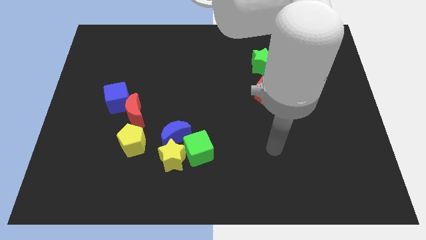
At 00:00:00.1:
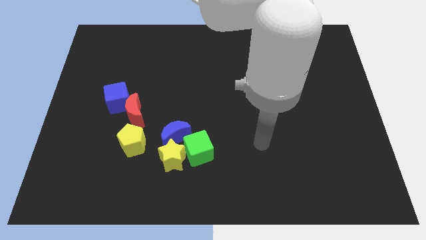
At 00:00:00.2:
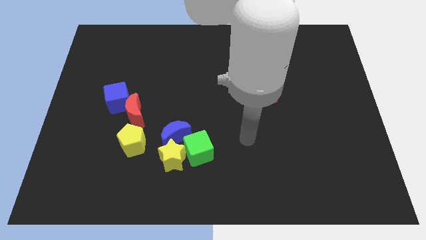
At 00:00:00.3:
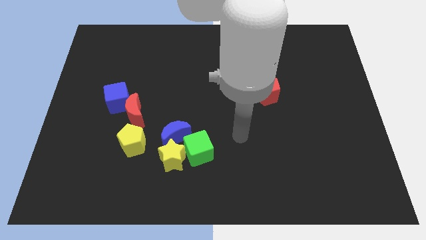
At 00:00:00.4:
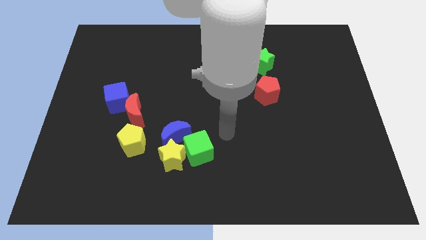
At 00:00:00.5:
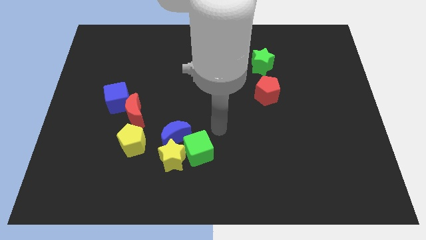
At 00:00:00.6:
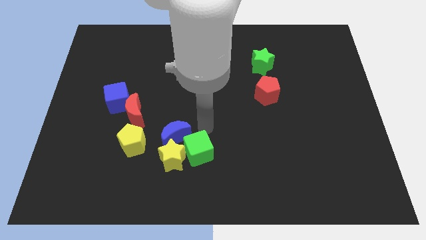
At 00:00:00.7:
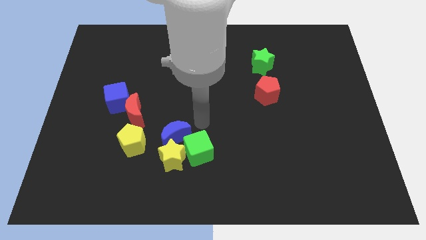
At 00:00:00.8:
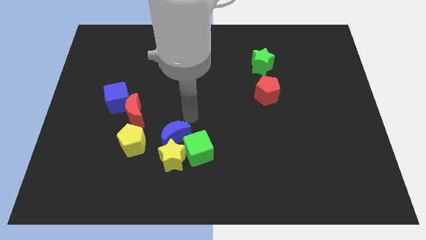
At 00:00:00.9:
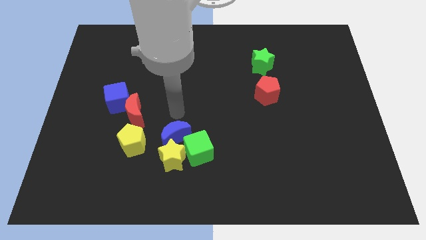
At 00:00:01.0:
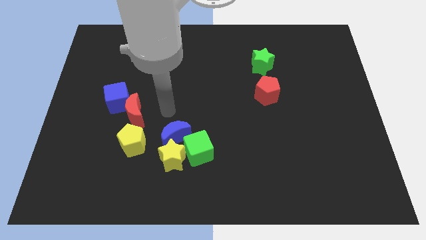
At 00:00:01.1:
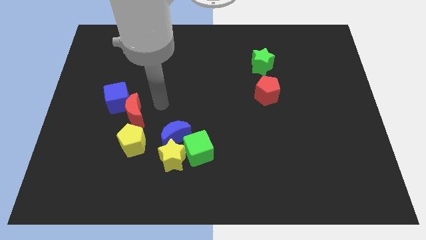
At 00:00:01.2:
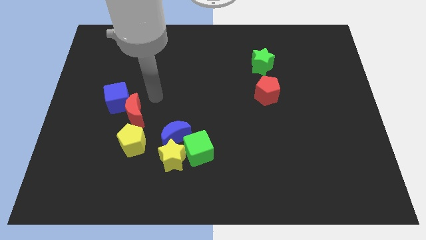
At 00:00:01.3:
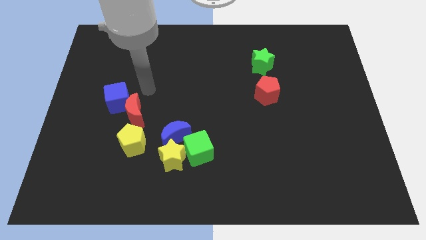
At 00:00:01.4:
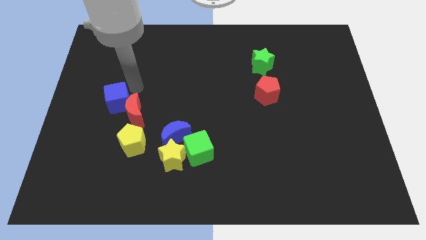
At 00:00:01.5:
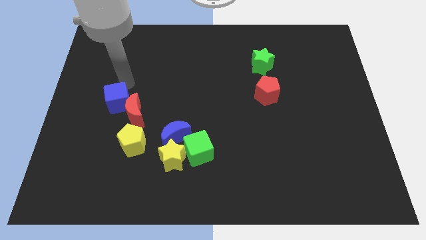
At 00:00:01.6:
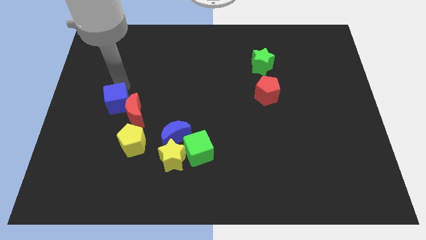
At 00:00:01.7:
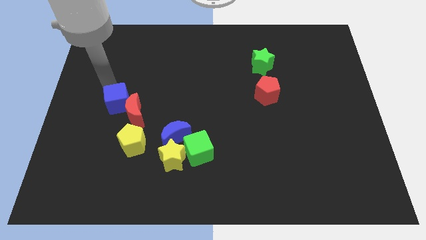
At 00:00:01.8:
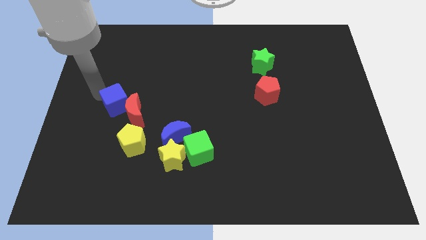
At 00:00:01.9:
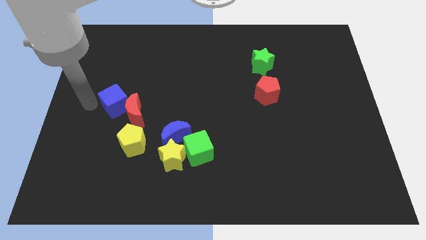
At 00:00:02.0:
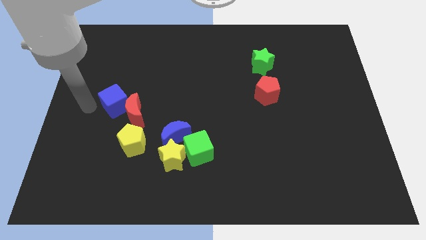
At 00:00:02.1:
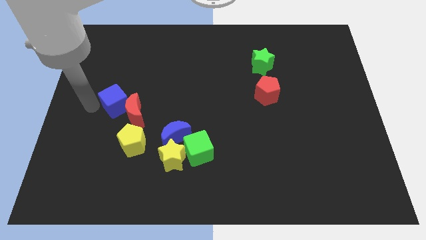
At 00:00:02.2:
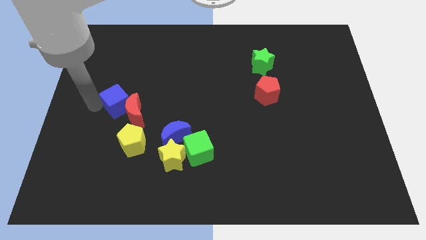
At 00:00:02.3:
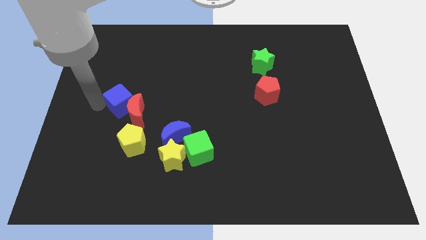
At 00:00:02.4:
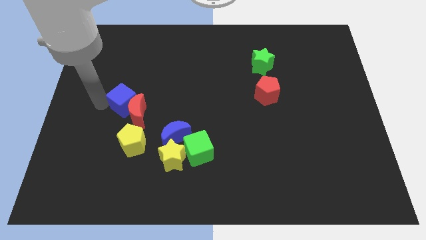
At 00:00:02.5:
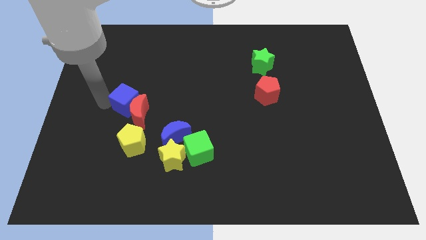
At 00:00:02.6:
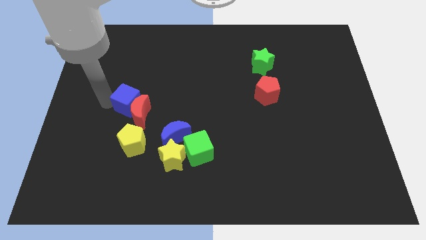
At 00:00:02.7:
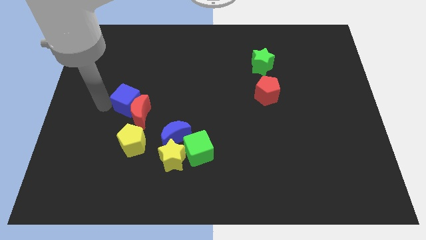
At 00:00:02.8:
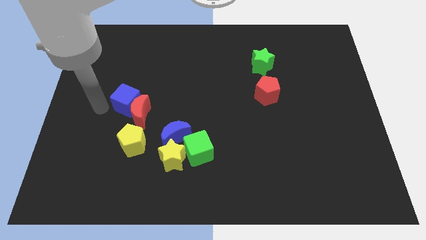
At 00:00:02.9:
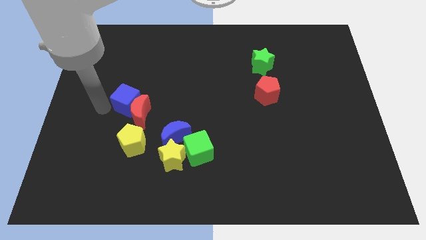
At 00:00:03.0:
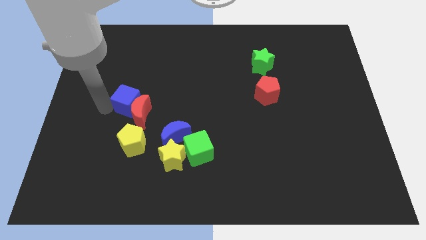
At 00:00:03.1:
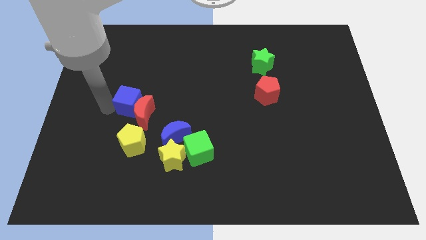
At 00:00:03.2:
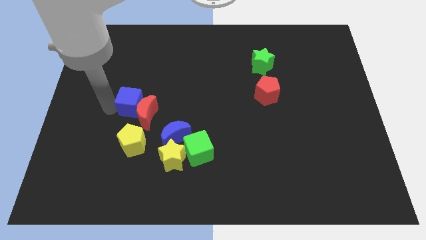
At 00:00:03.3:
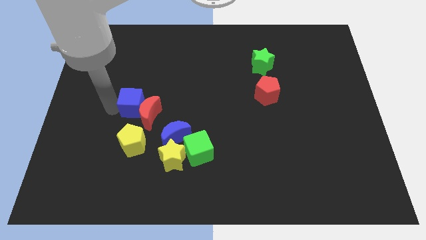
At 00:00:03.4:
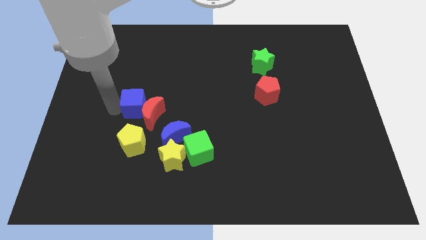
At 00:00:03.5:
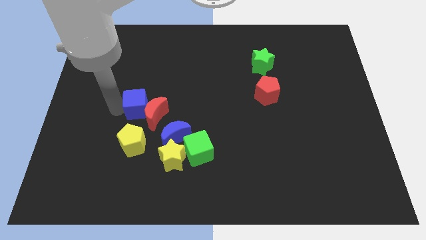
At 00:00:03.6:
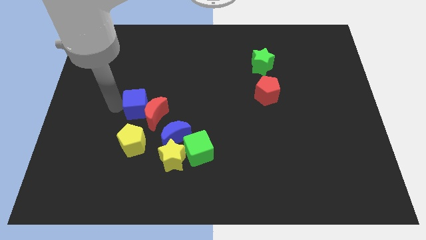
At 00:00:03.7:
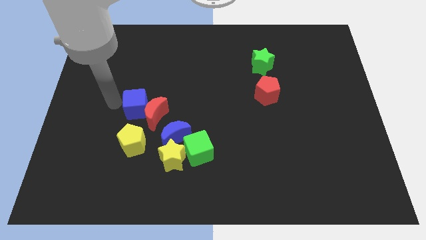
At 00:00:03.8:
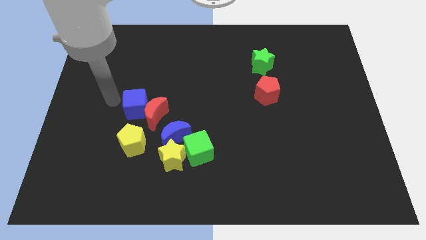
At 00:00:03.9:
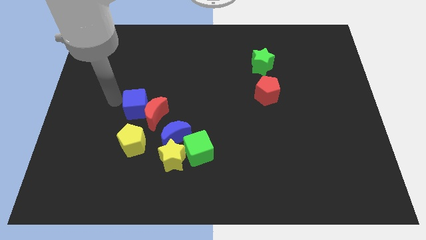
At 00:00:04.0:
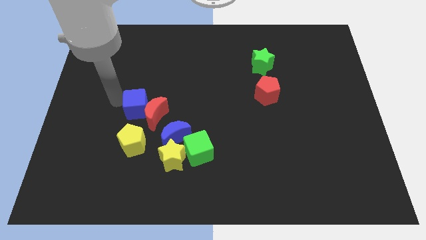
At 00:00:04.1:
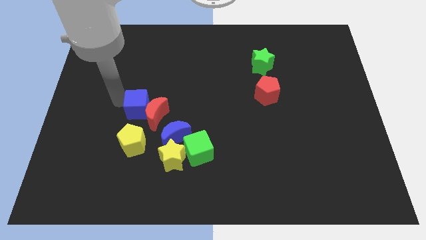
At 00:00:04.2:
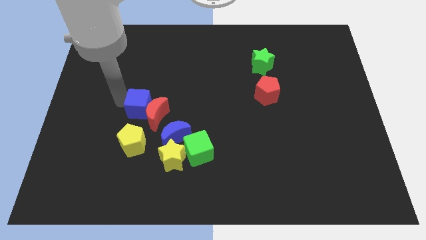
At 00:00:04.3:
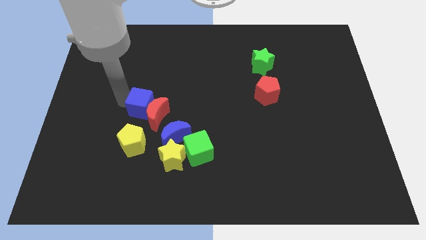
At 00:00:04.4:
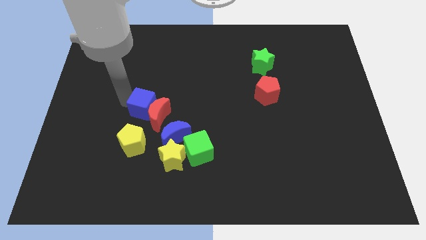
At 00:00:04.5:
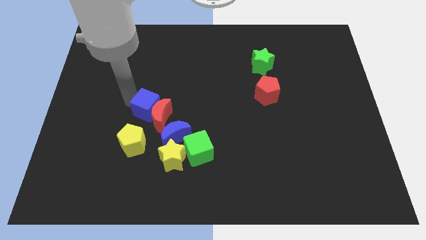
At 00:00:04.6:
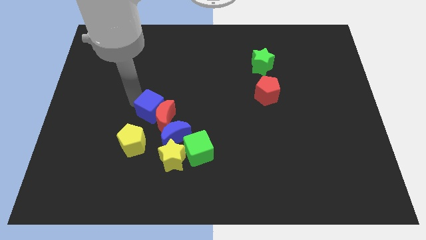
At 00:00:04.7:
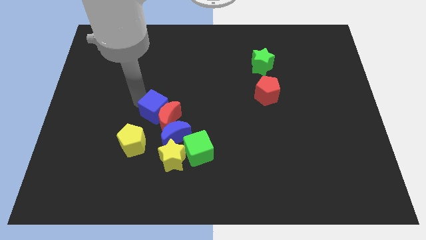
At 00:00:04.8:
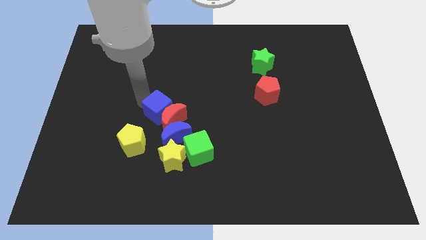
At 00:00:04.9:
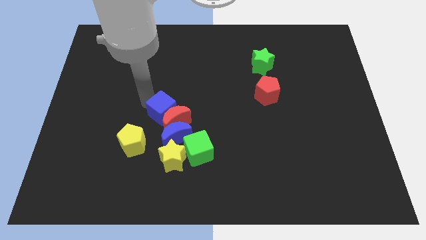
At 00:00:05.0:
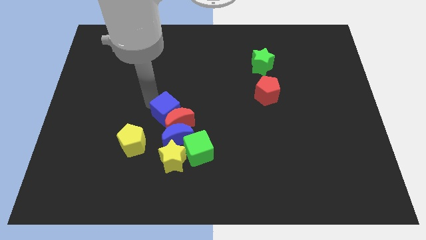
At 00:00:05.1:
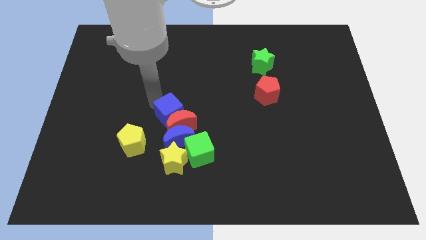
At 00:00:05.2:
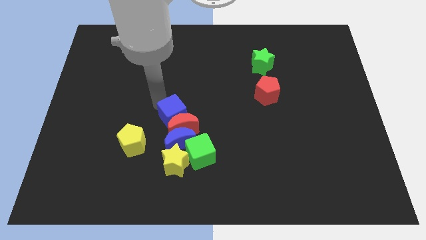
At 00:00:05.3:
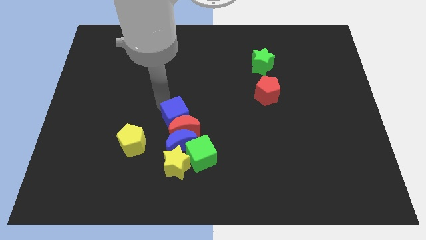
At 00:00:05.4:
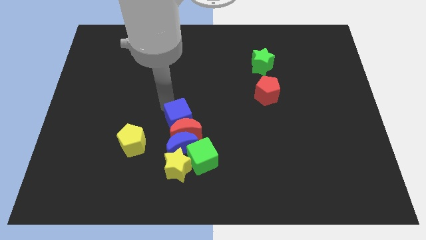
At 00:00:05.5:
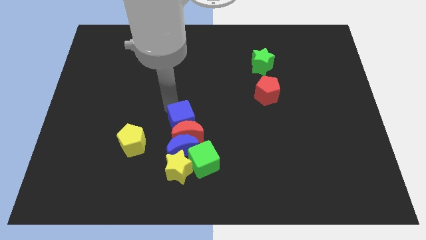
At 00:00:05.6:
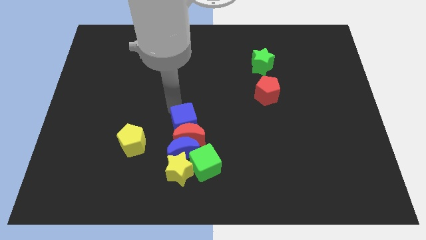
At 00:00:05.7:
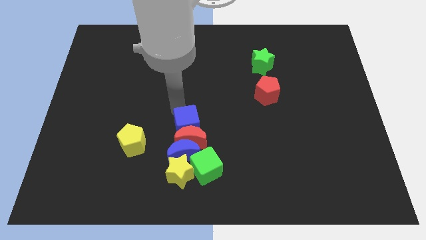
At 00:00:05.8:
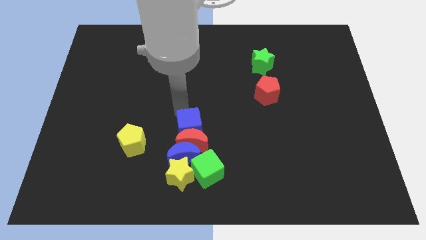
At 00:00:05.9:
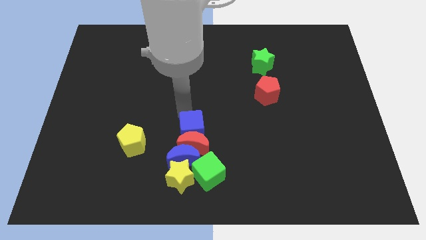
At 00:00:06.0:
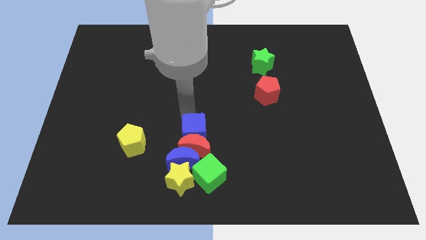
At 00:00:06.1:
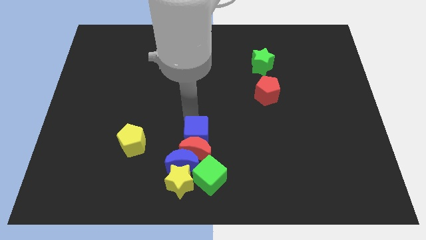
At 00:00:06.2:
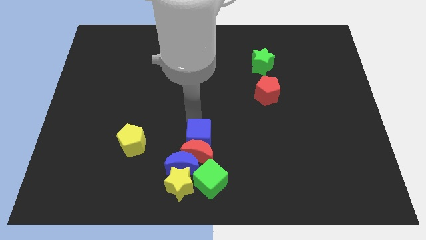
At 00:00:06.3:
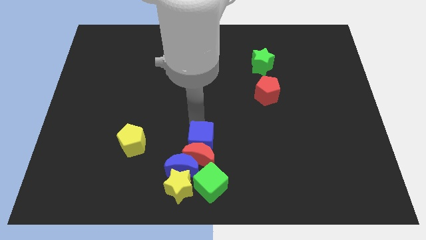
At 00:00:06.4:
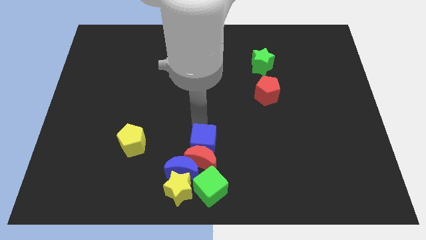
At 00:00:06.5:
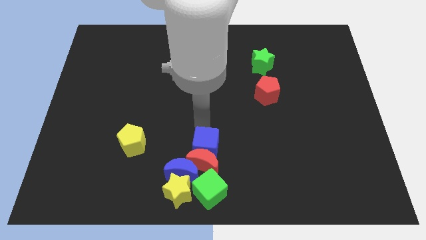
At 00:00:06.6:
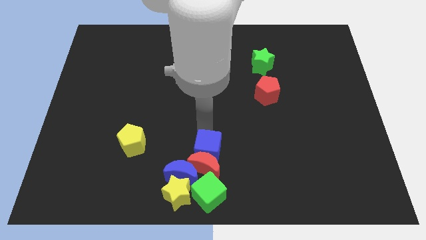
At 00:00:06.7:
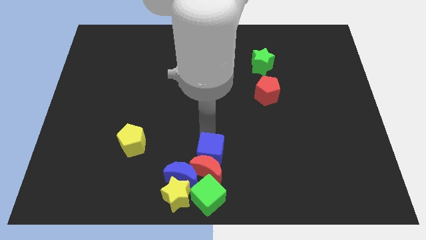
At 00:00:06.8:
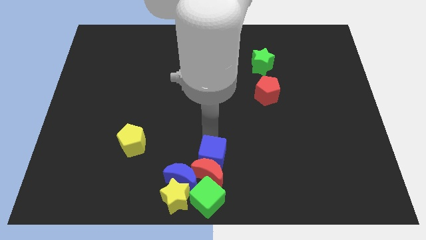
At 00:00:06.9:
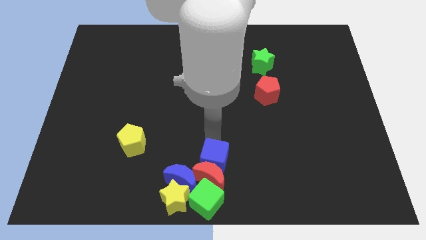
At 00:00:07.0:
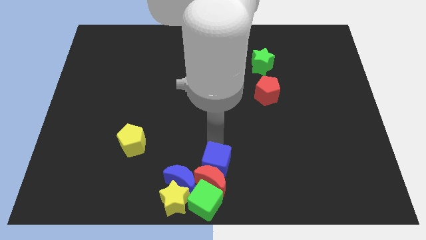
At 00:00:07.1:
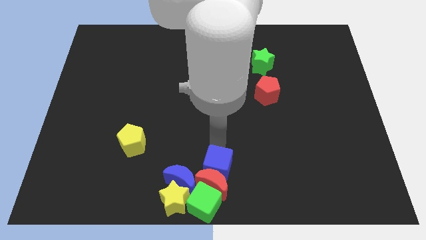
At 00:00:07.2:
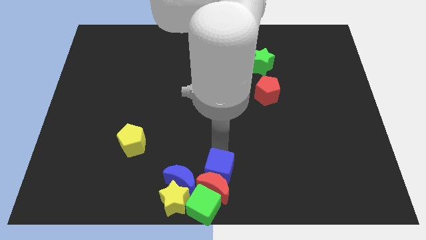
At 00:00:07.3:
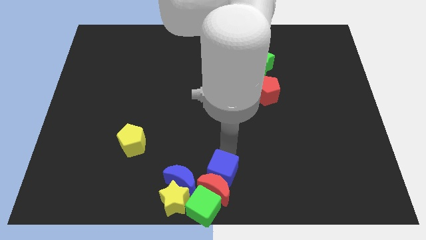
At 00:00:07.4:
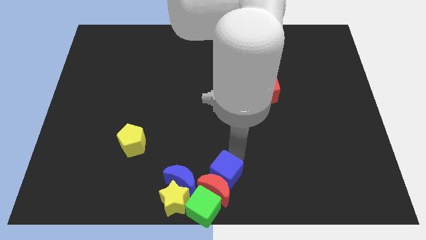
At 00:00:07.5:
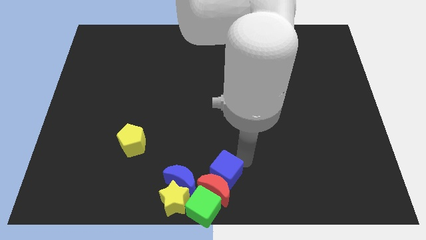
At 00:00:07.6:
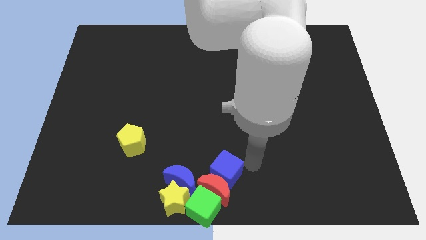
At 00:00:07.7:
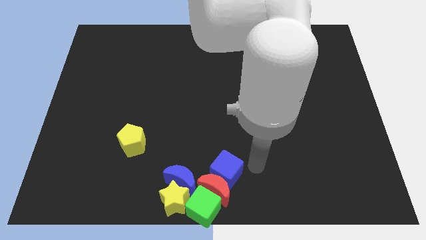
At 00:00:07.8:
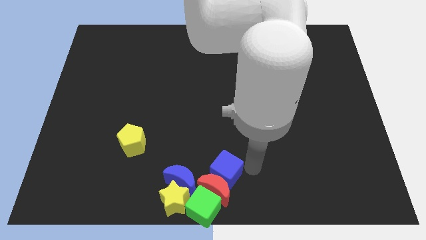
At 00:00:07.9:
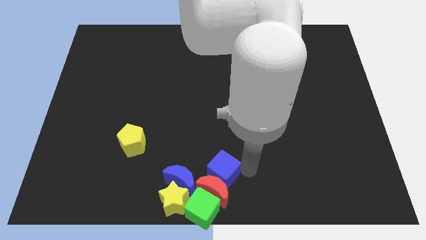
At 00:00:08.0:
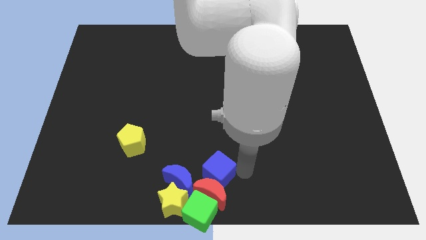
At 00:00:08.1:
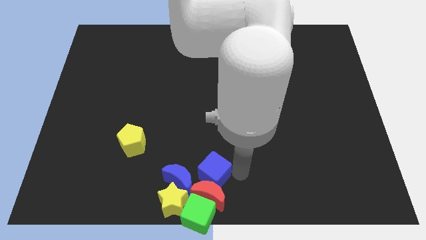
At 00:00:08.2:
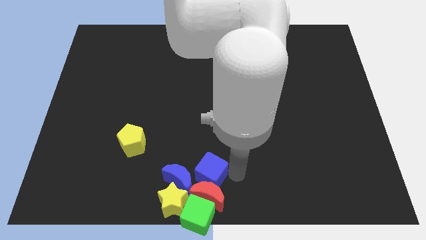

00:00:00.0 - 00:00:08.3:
put the blue cube to the blue moon
